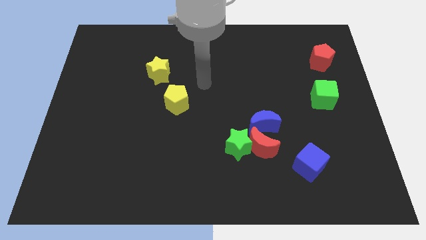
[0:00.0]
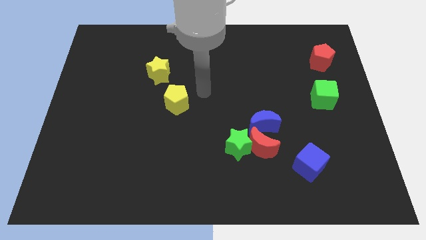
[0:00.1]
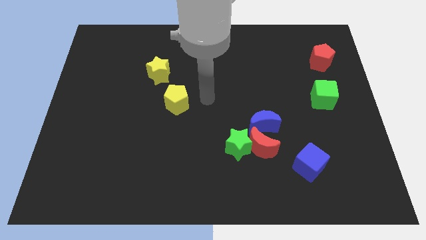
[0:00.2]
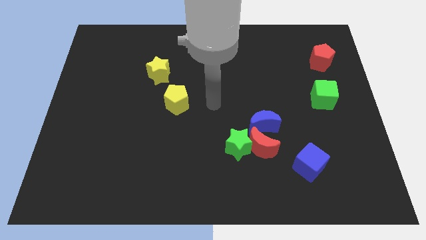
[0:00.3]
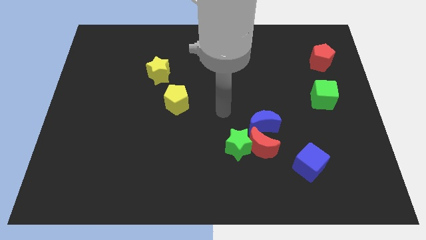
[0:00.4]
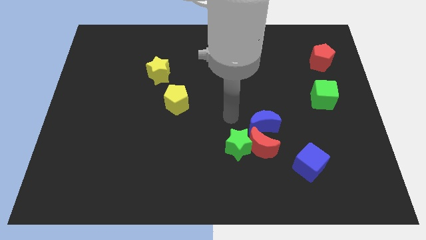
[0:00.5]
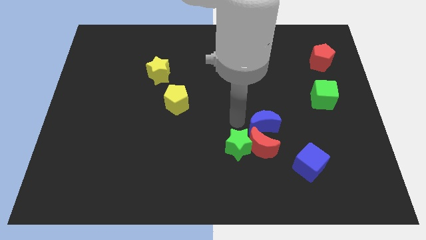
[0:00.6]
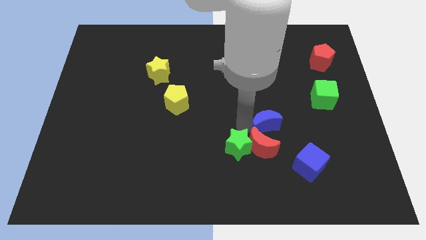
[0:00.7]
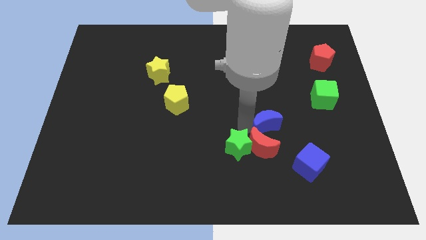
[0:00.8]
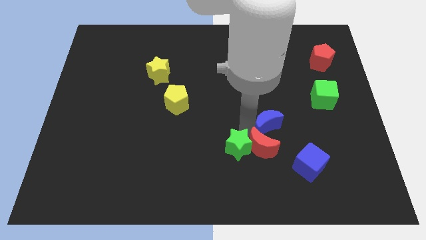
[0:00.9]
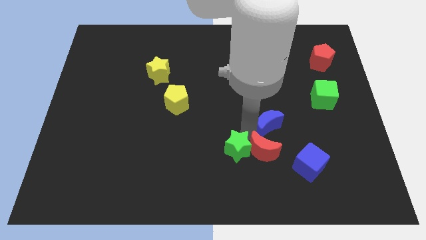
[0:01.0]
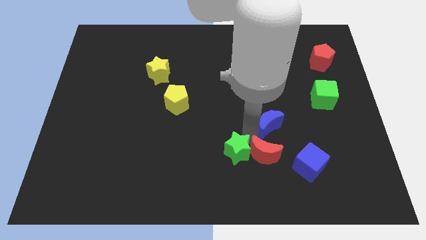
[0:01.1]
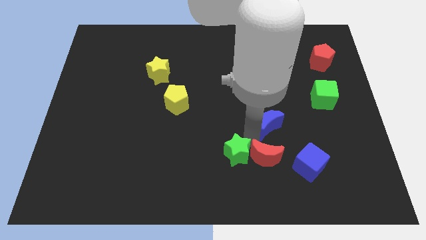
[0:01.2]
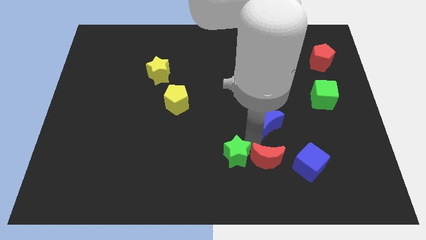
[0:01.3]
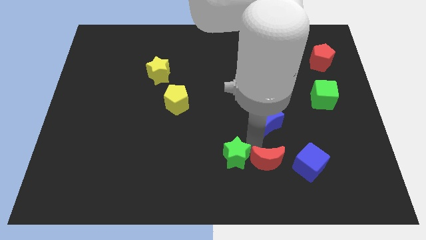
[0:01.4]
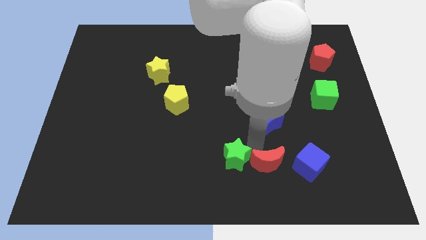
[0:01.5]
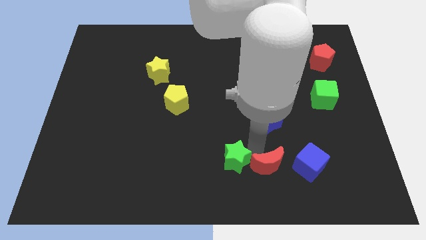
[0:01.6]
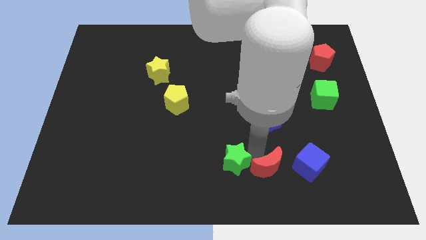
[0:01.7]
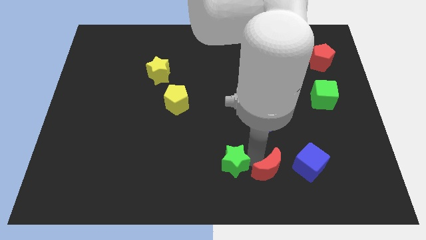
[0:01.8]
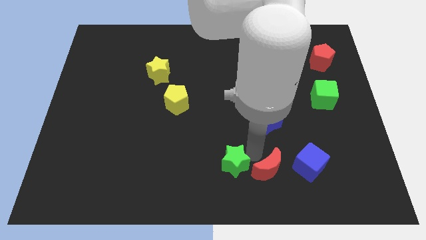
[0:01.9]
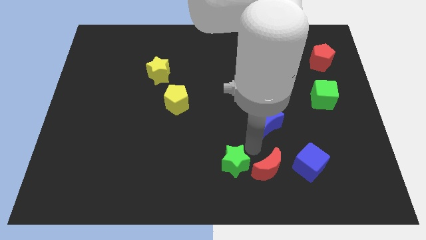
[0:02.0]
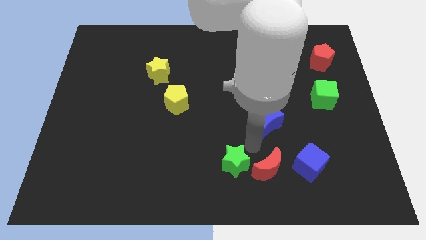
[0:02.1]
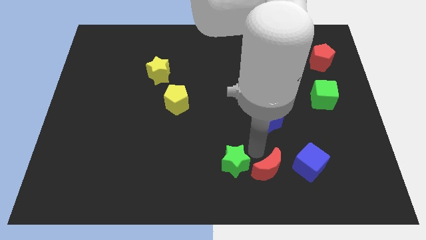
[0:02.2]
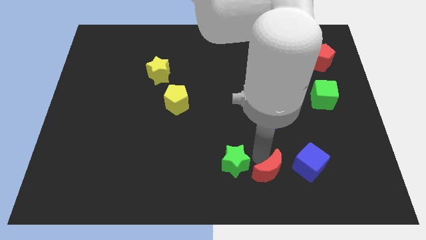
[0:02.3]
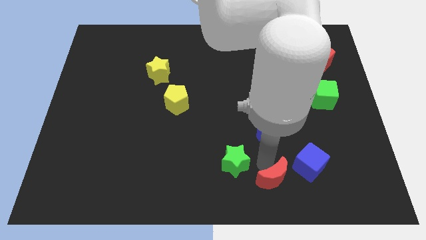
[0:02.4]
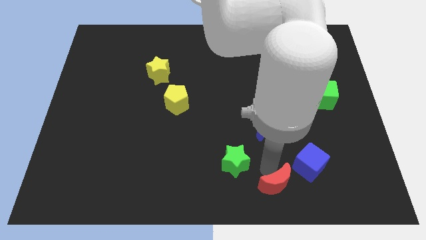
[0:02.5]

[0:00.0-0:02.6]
move the red moon away from the green star and blue moon

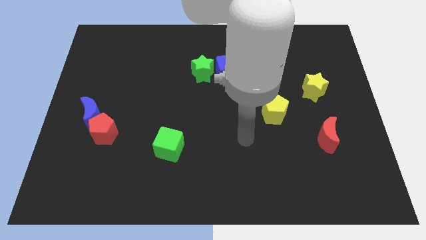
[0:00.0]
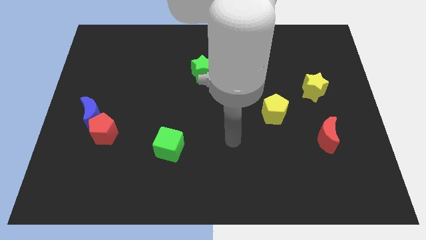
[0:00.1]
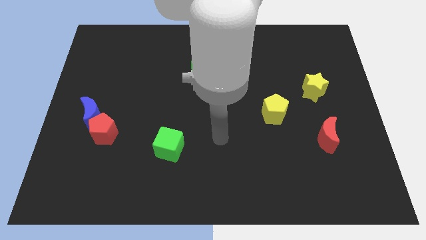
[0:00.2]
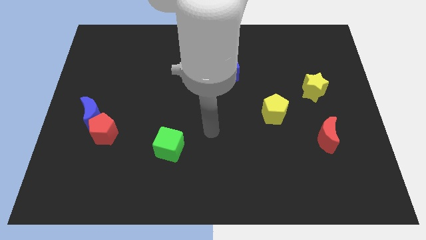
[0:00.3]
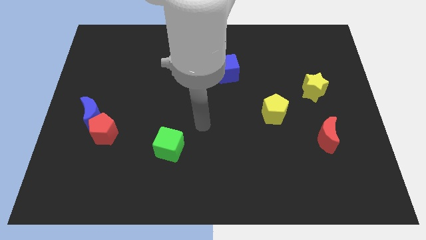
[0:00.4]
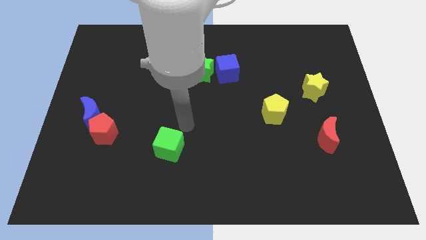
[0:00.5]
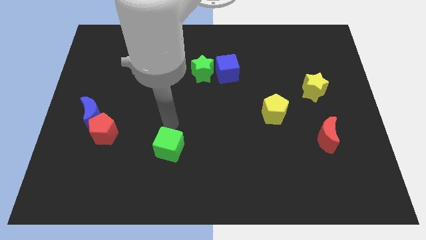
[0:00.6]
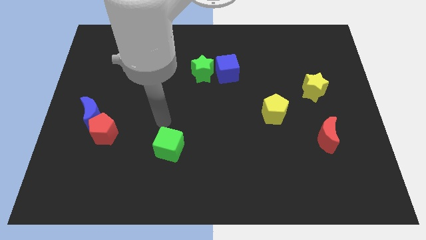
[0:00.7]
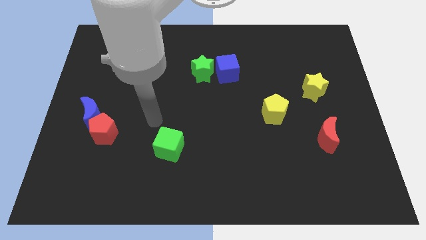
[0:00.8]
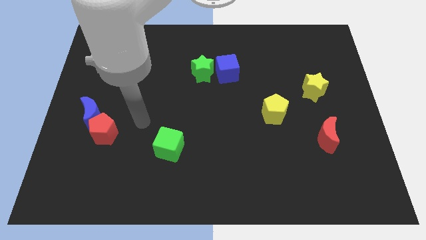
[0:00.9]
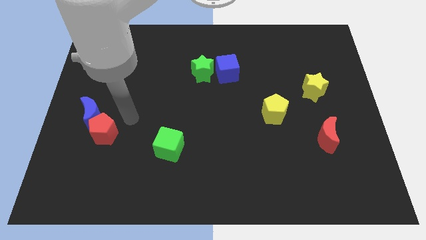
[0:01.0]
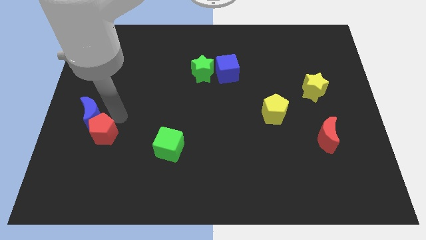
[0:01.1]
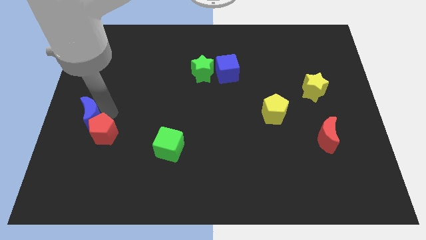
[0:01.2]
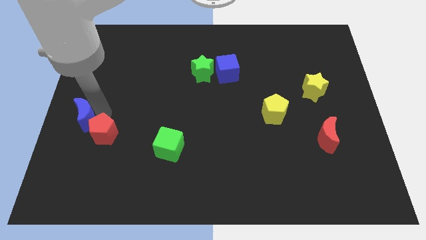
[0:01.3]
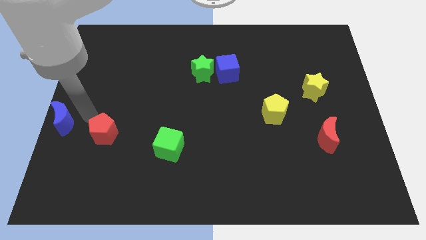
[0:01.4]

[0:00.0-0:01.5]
pull the red pentagon apart from the blue moon

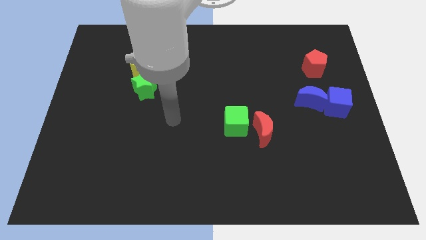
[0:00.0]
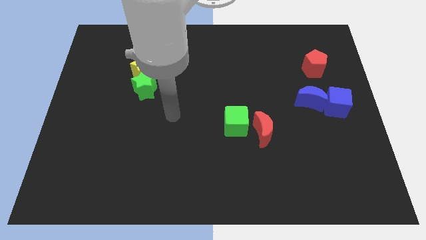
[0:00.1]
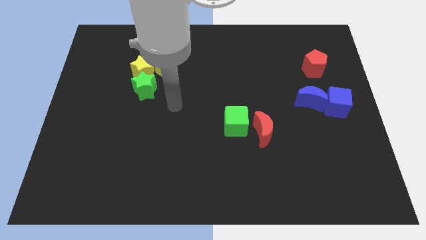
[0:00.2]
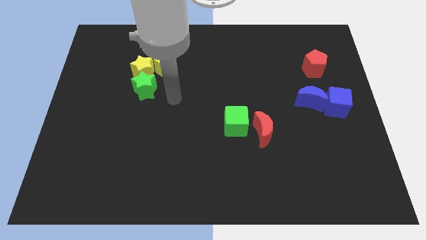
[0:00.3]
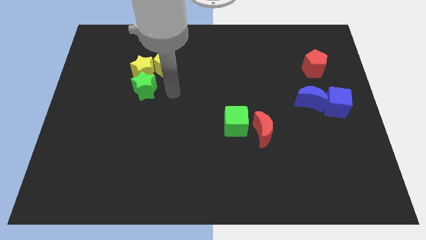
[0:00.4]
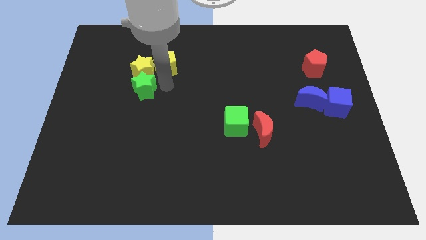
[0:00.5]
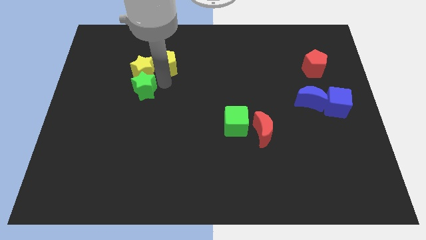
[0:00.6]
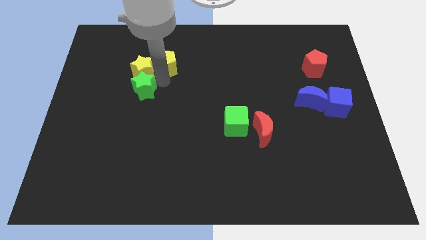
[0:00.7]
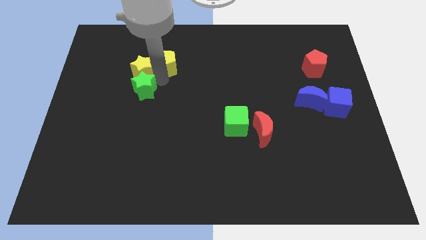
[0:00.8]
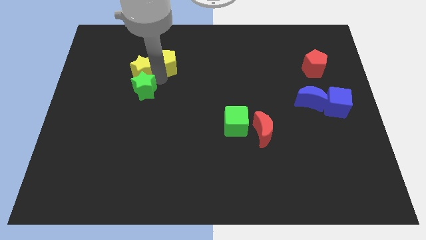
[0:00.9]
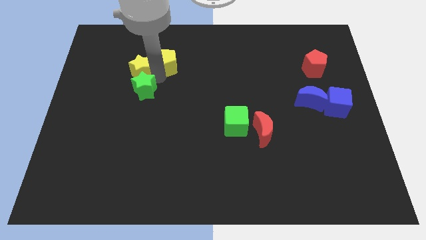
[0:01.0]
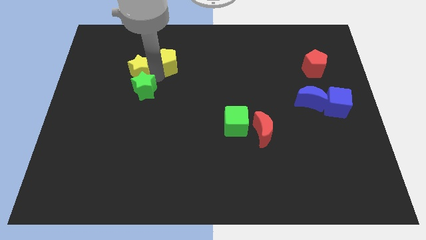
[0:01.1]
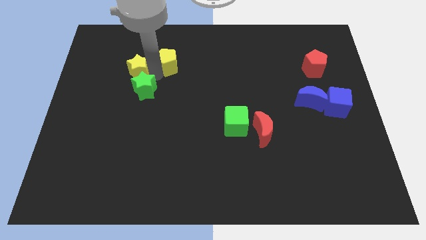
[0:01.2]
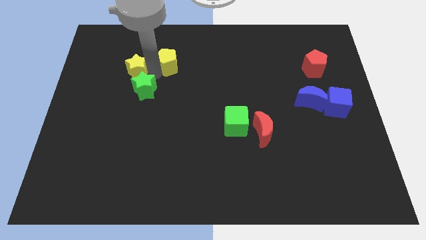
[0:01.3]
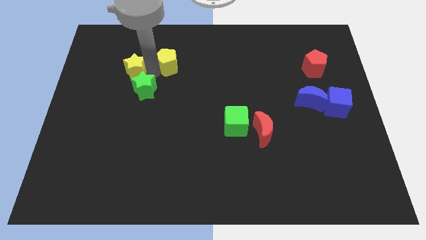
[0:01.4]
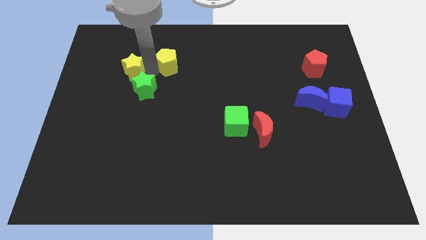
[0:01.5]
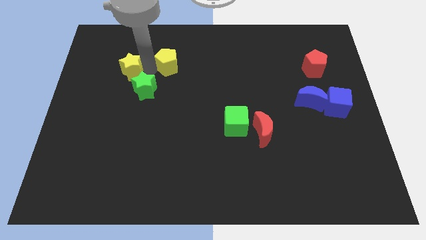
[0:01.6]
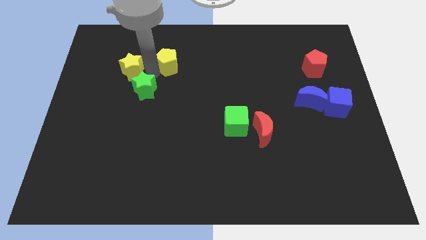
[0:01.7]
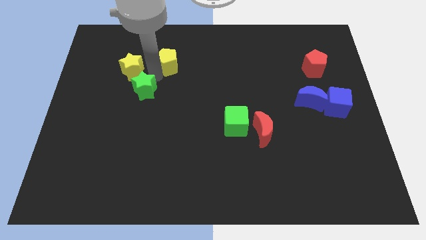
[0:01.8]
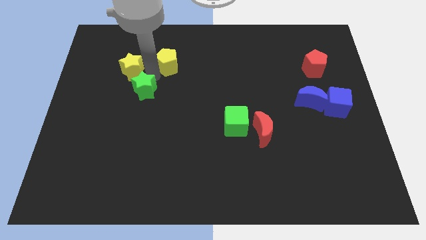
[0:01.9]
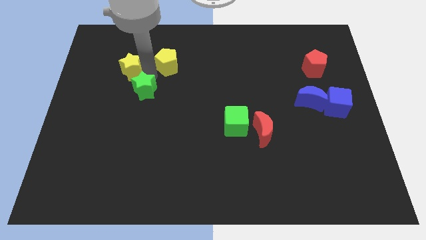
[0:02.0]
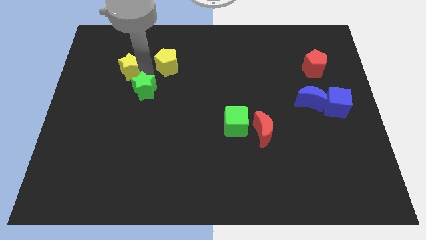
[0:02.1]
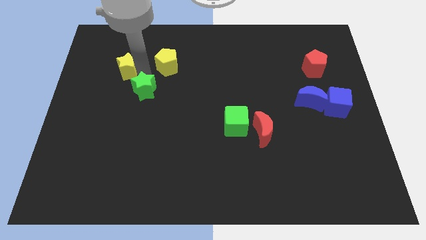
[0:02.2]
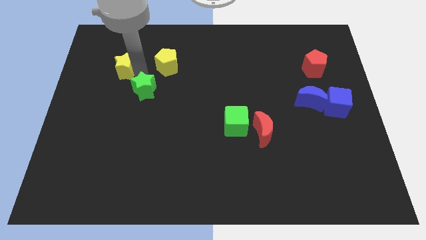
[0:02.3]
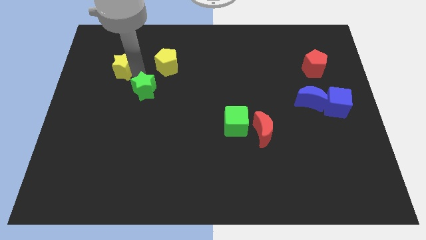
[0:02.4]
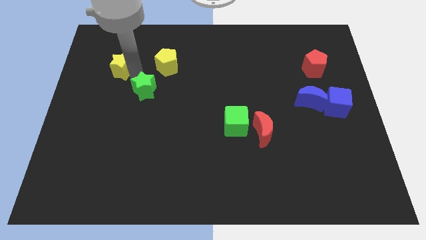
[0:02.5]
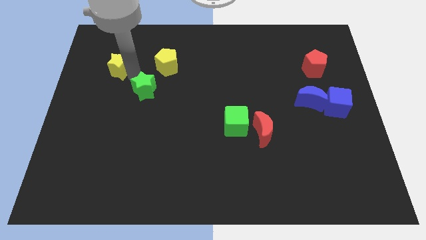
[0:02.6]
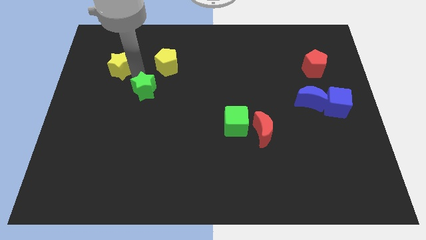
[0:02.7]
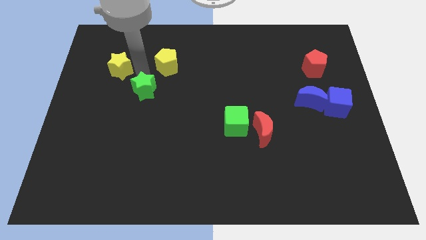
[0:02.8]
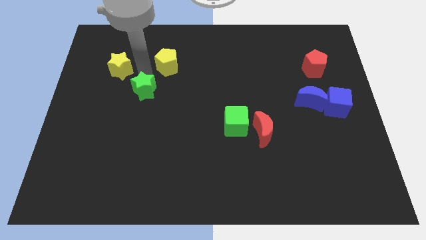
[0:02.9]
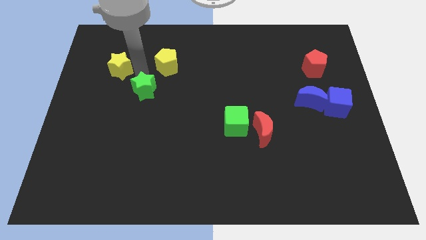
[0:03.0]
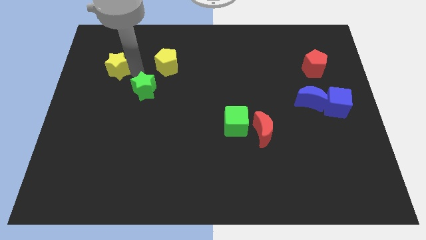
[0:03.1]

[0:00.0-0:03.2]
move the yellow star away from the green star and yellow pentagon

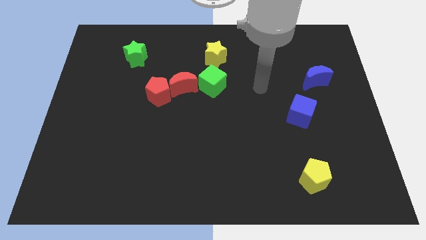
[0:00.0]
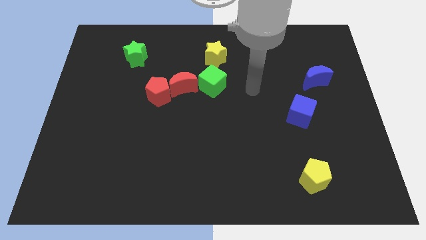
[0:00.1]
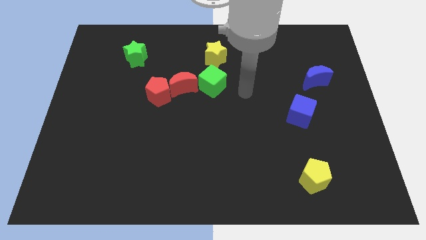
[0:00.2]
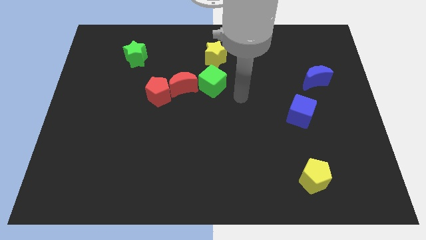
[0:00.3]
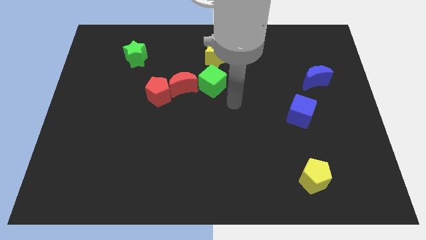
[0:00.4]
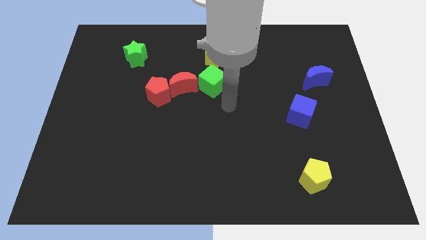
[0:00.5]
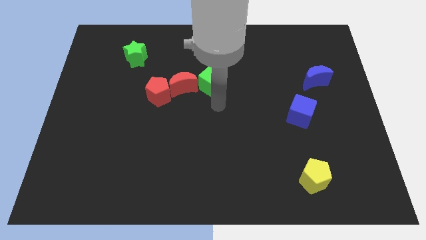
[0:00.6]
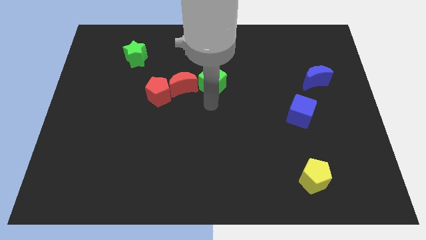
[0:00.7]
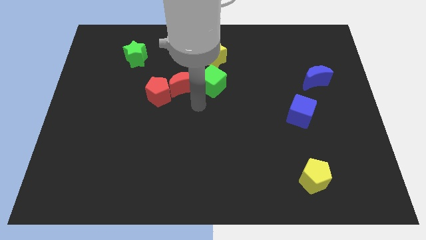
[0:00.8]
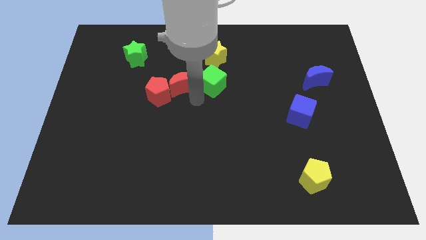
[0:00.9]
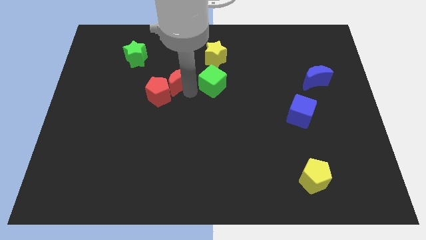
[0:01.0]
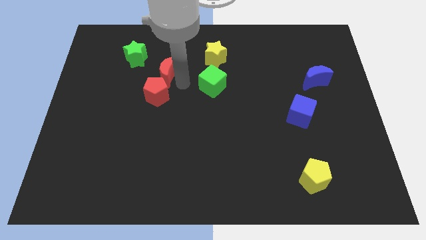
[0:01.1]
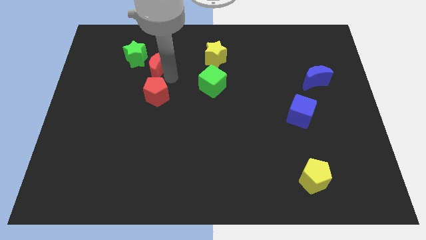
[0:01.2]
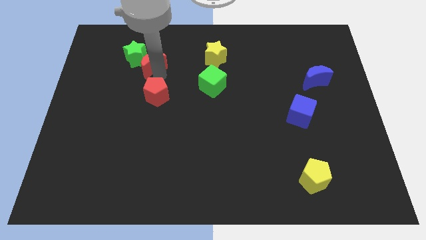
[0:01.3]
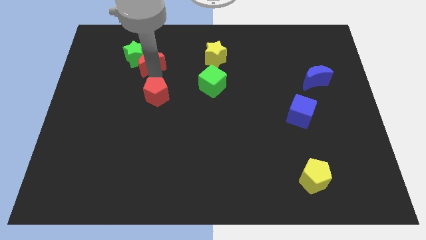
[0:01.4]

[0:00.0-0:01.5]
move the red pentagon away from the red moon

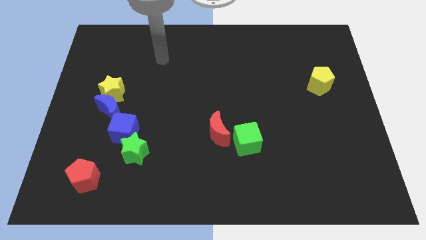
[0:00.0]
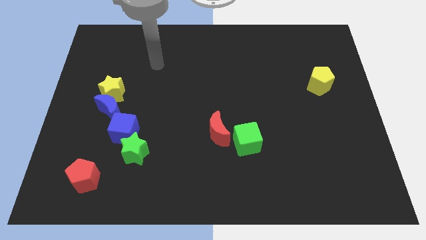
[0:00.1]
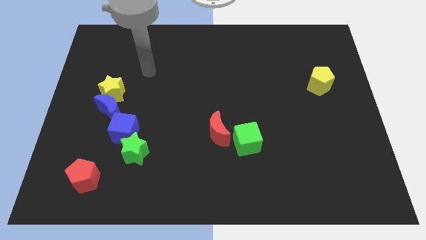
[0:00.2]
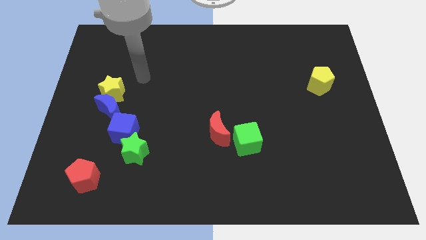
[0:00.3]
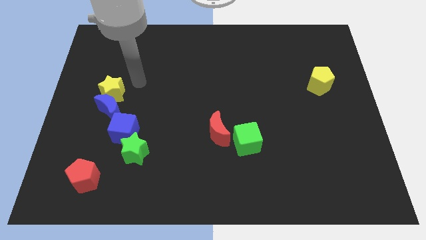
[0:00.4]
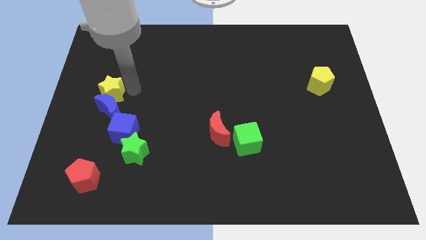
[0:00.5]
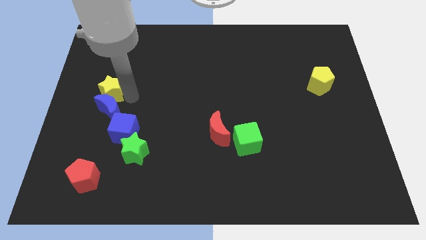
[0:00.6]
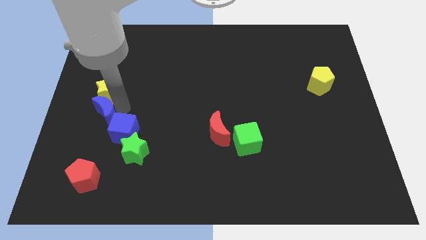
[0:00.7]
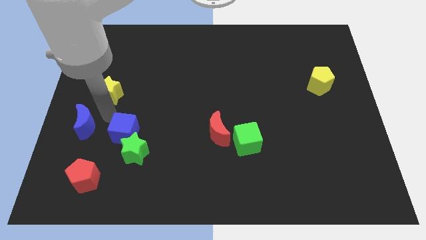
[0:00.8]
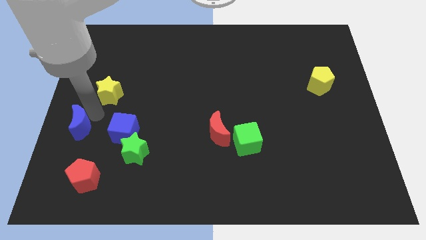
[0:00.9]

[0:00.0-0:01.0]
pull the yellow star apart from the blue moon
